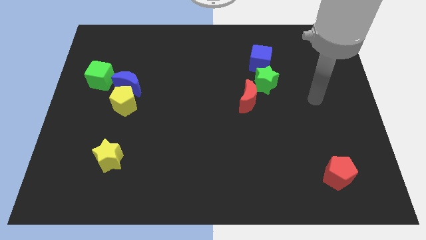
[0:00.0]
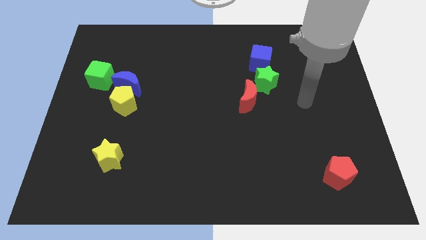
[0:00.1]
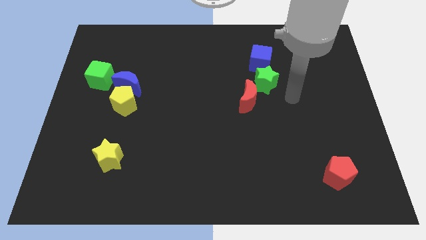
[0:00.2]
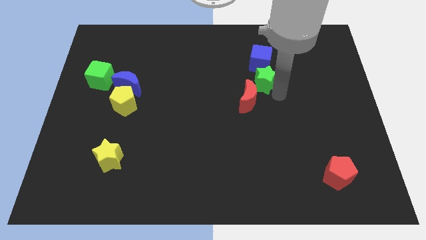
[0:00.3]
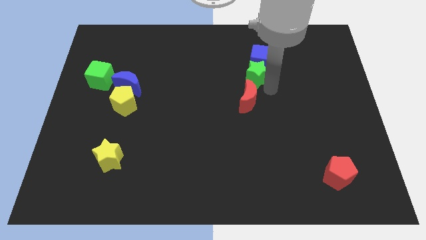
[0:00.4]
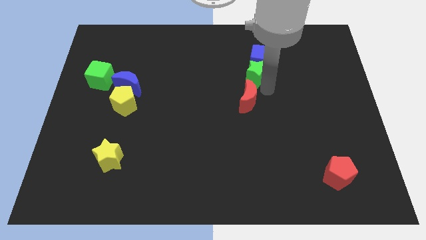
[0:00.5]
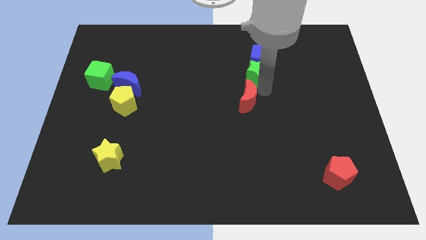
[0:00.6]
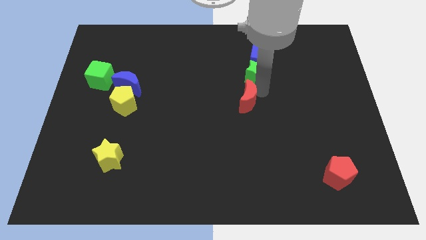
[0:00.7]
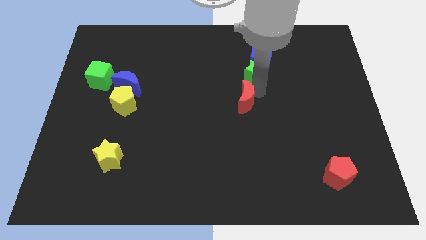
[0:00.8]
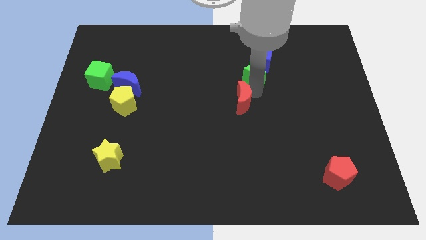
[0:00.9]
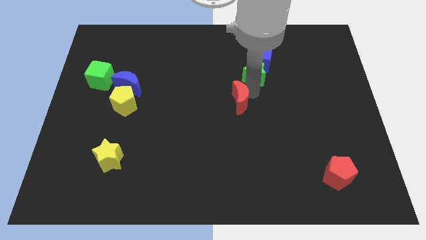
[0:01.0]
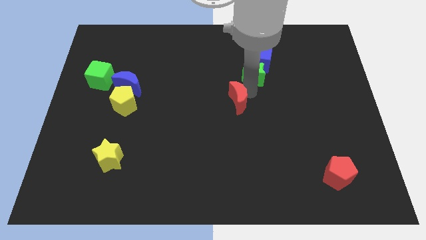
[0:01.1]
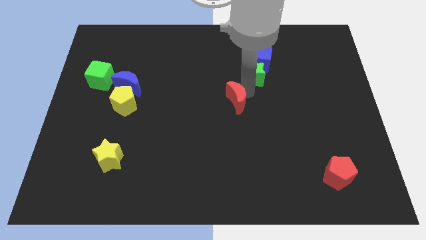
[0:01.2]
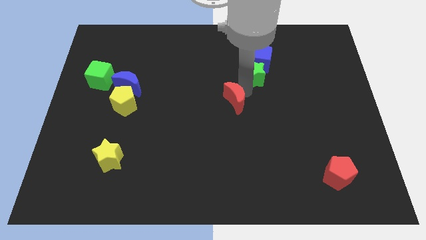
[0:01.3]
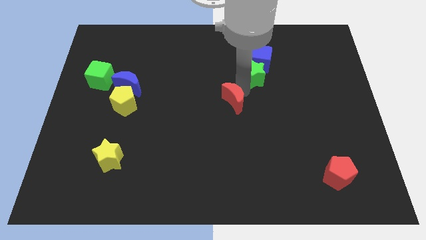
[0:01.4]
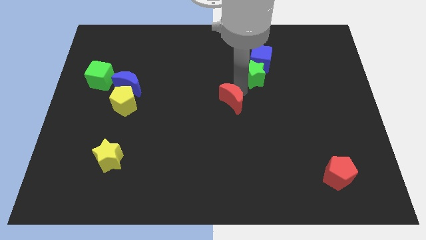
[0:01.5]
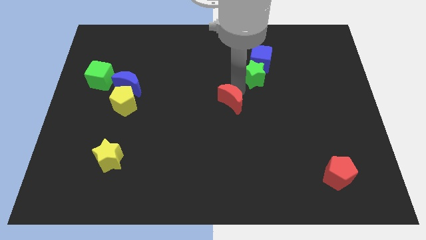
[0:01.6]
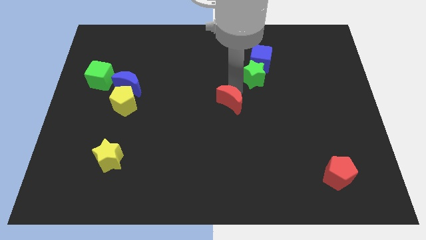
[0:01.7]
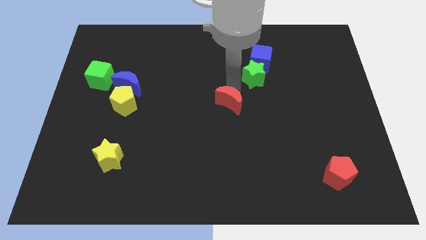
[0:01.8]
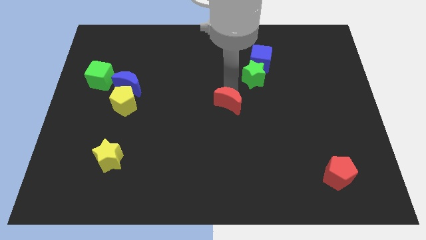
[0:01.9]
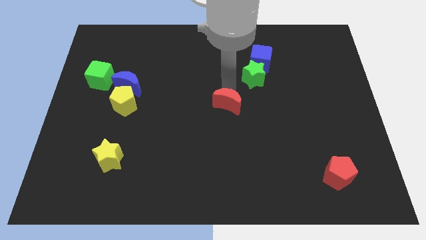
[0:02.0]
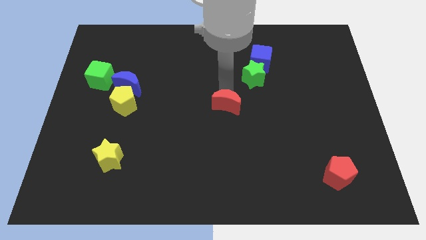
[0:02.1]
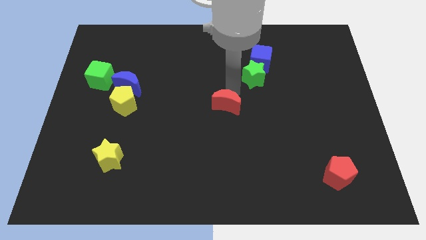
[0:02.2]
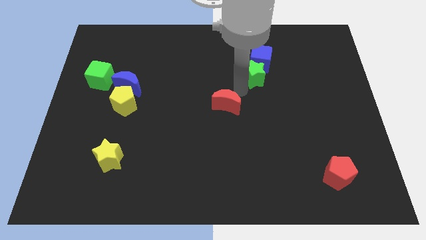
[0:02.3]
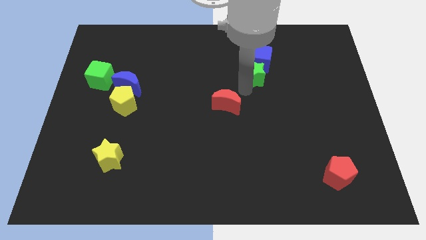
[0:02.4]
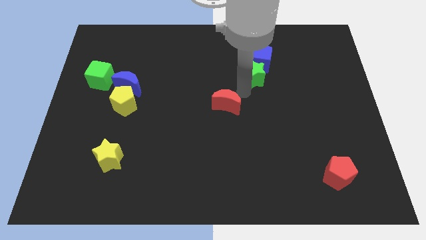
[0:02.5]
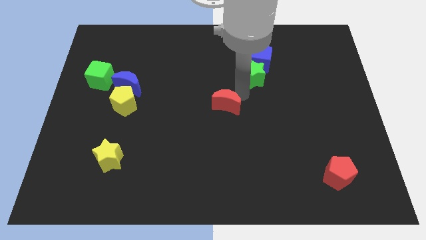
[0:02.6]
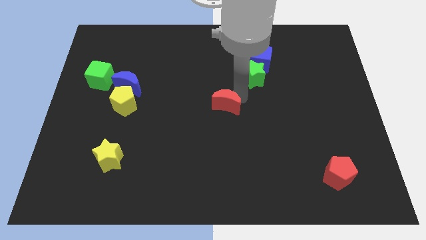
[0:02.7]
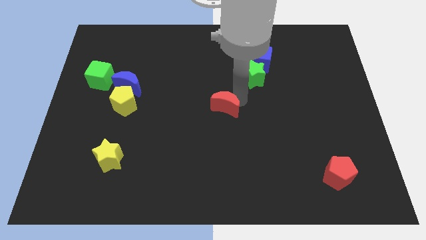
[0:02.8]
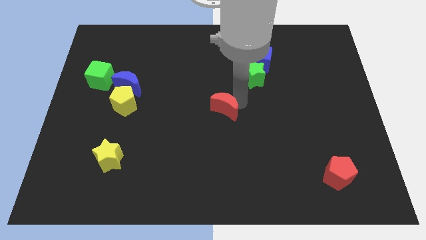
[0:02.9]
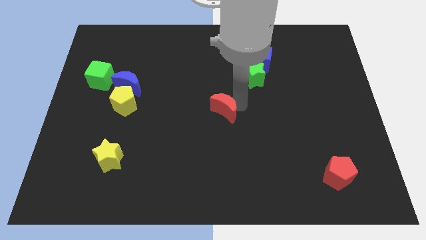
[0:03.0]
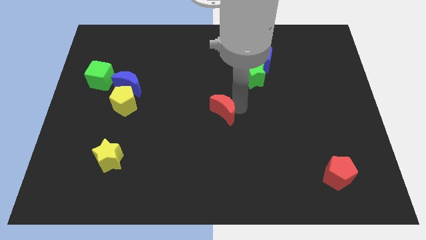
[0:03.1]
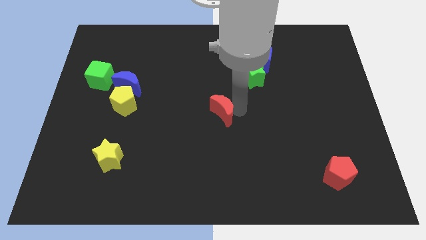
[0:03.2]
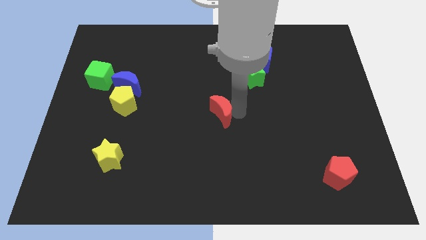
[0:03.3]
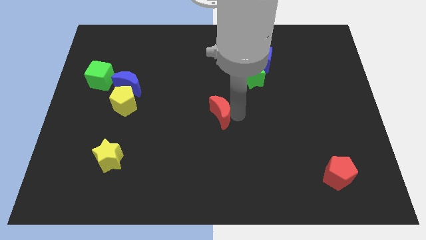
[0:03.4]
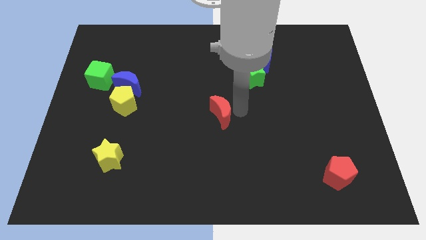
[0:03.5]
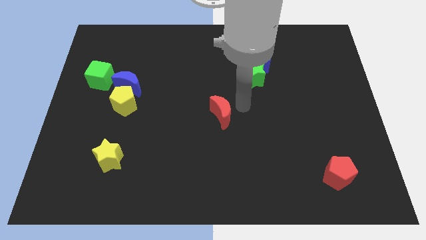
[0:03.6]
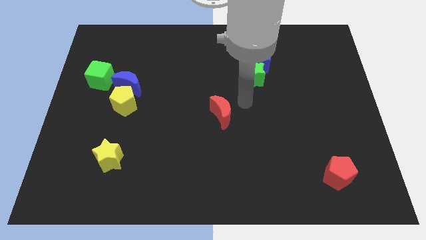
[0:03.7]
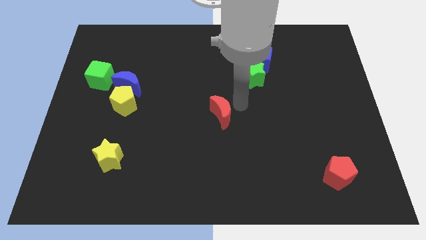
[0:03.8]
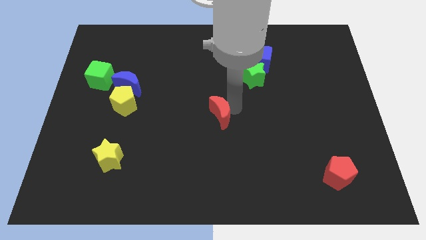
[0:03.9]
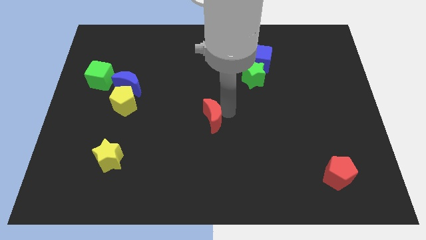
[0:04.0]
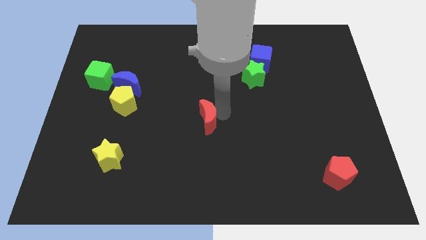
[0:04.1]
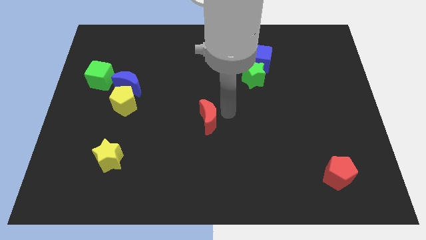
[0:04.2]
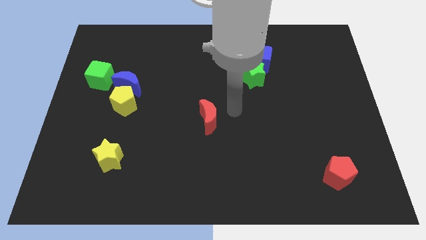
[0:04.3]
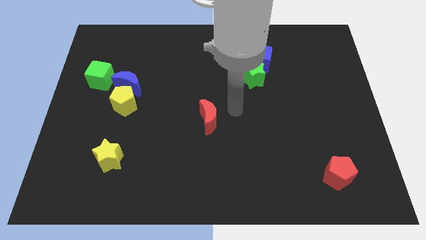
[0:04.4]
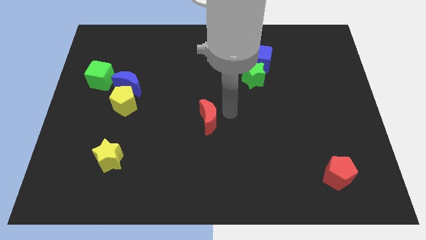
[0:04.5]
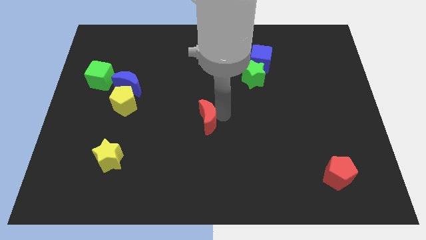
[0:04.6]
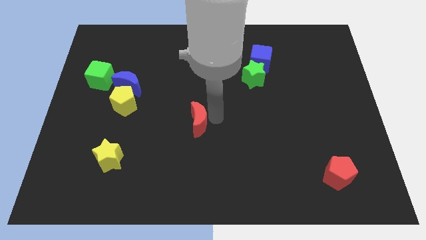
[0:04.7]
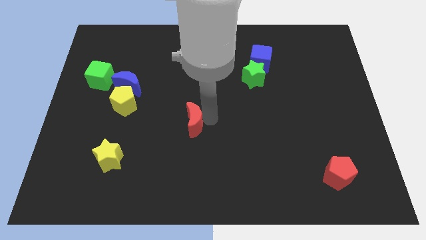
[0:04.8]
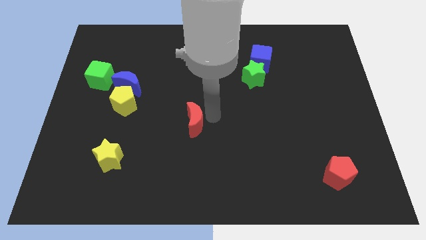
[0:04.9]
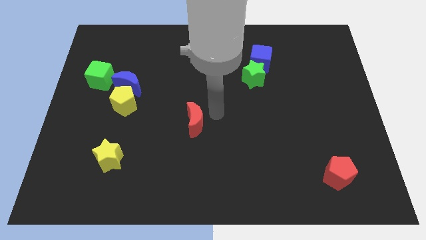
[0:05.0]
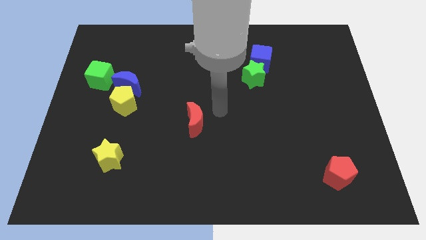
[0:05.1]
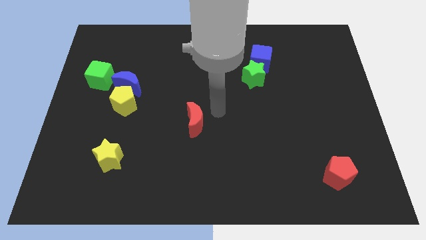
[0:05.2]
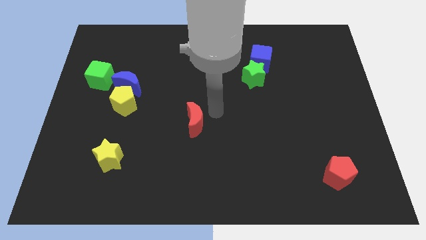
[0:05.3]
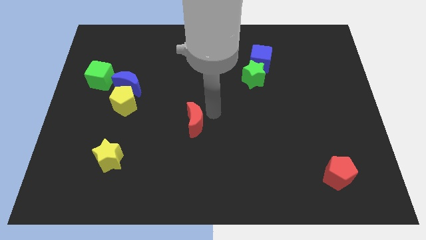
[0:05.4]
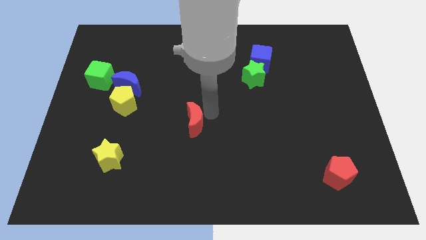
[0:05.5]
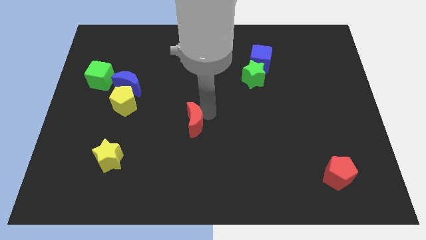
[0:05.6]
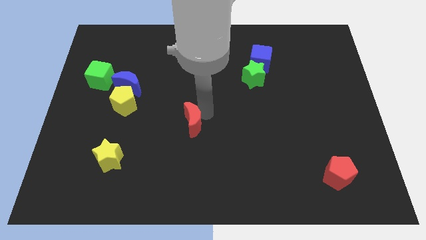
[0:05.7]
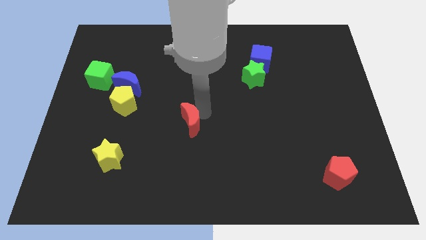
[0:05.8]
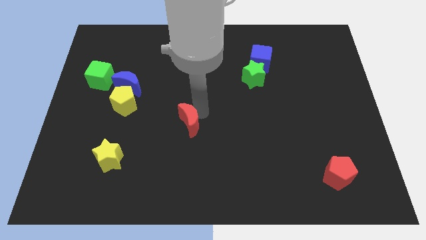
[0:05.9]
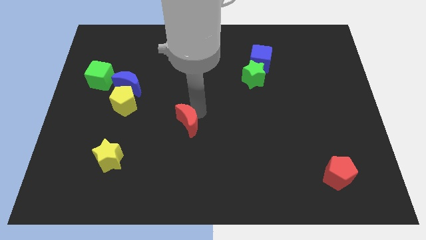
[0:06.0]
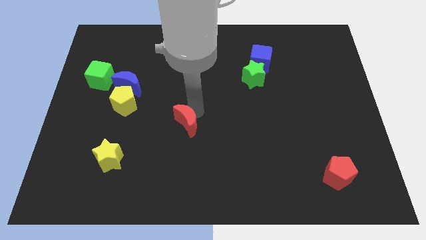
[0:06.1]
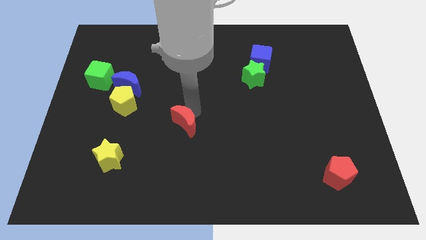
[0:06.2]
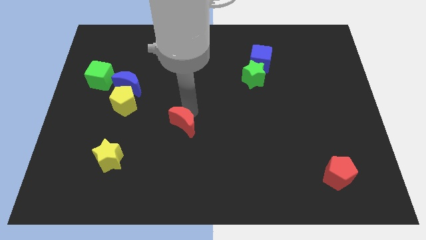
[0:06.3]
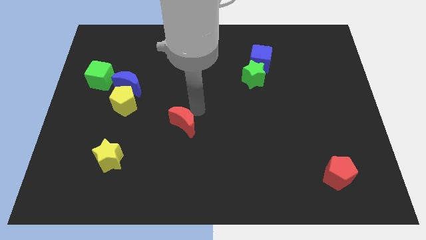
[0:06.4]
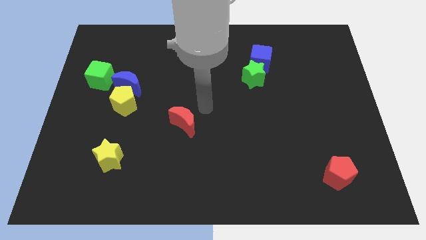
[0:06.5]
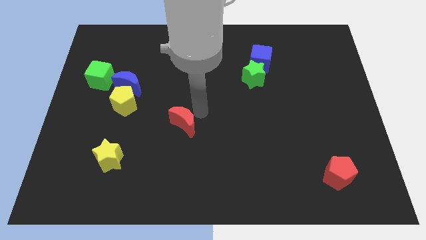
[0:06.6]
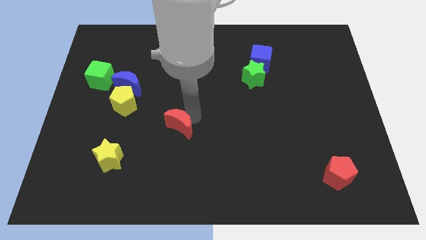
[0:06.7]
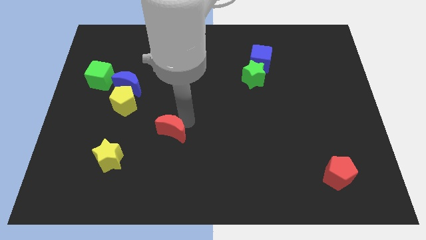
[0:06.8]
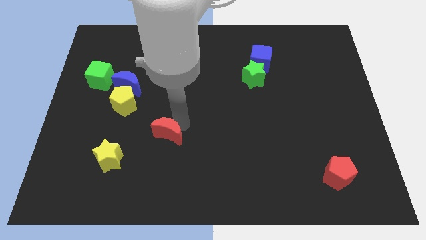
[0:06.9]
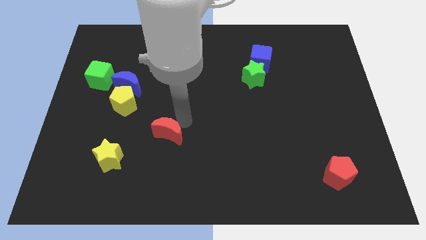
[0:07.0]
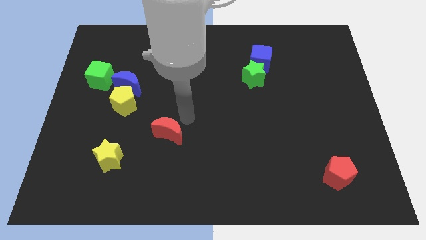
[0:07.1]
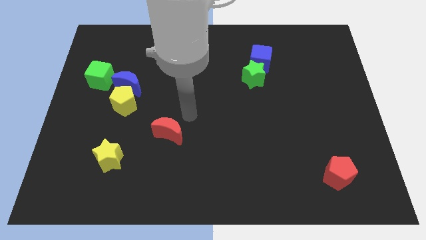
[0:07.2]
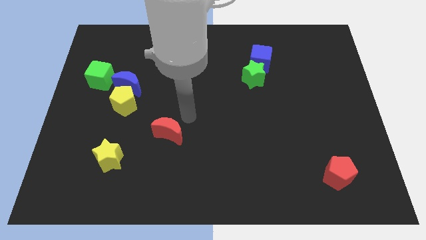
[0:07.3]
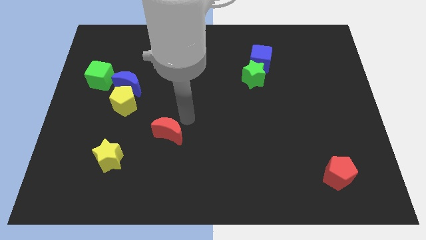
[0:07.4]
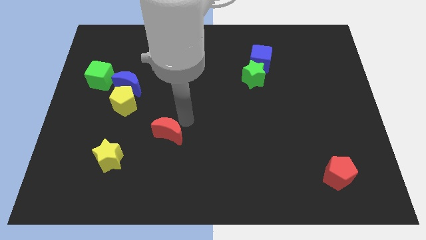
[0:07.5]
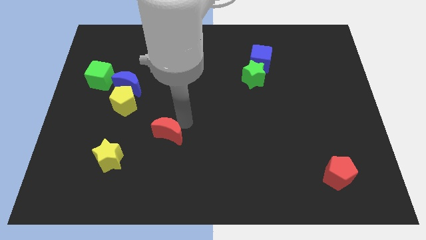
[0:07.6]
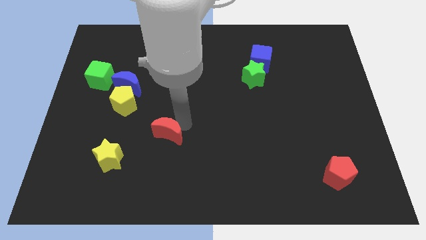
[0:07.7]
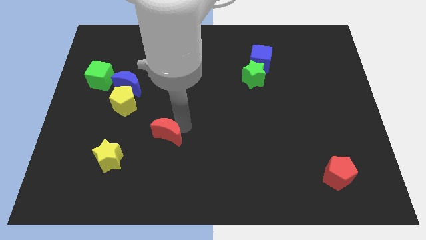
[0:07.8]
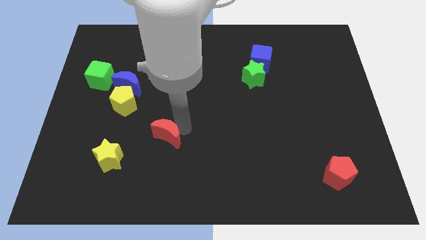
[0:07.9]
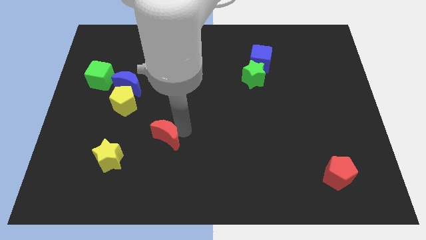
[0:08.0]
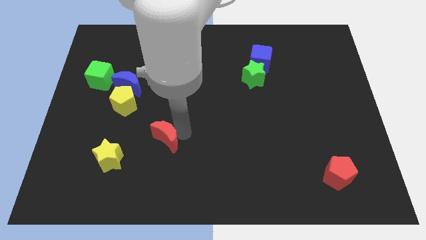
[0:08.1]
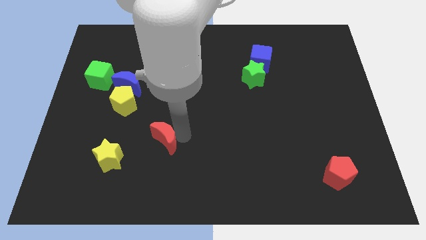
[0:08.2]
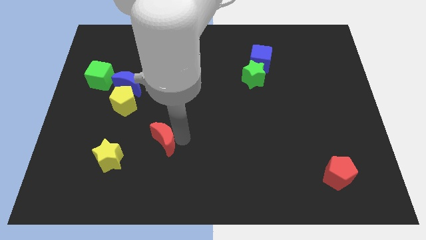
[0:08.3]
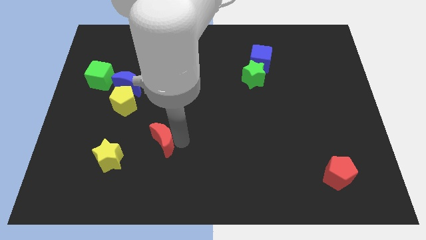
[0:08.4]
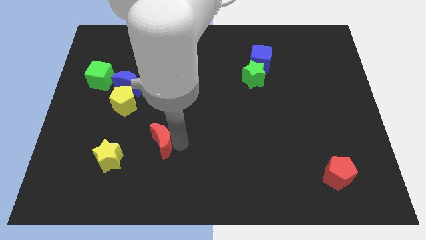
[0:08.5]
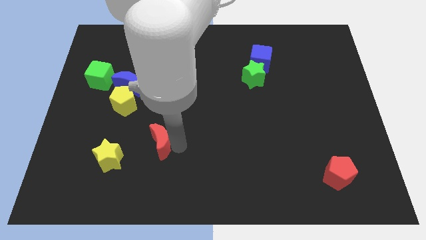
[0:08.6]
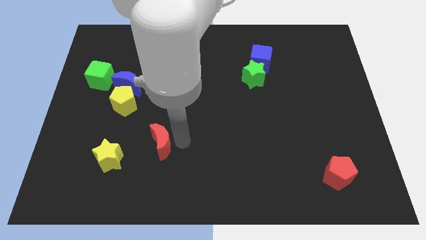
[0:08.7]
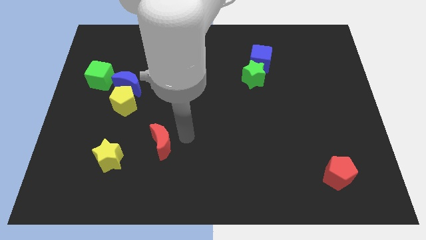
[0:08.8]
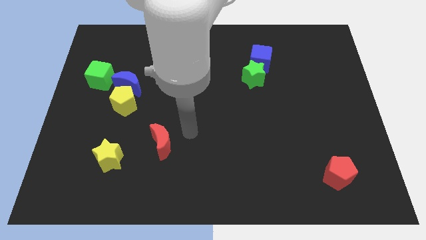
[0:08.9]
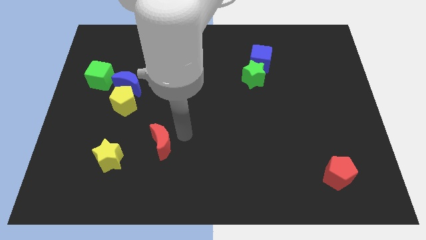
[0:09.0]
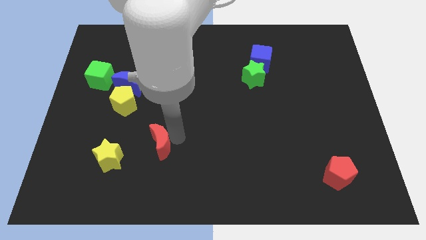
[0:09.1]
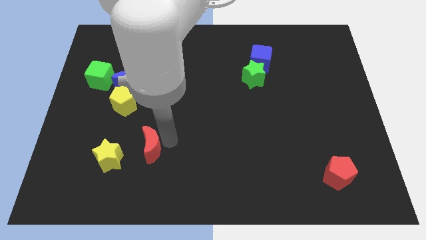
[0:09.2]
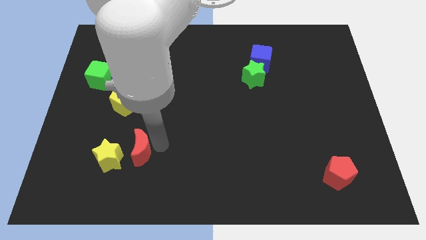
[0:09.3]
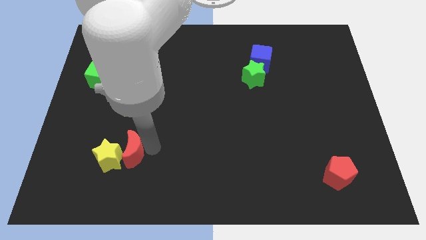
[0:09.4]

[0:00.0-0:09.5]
push the red moon to the yellow star
